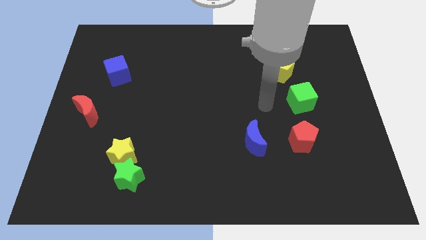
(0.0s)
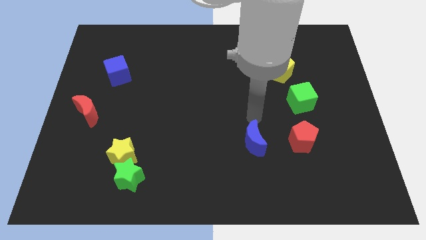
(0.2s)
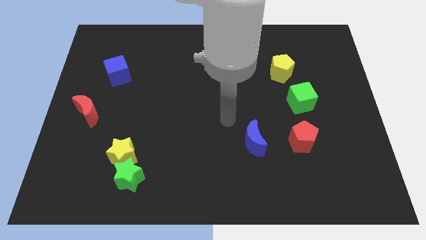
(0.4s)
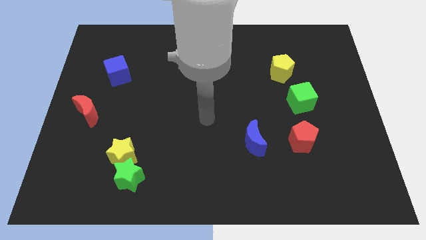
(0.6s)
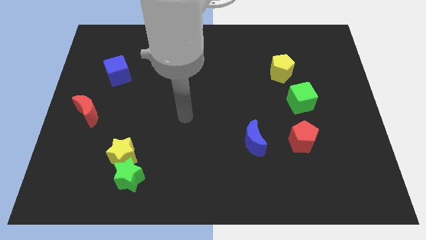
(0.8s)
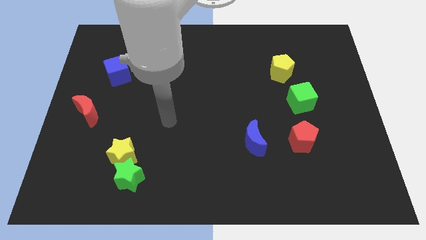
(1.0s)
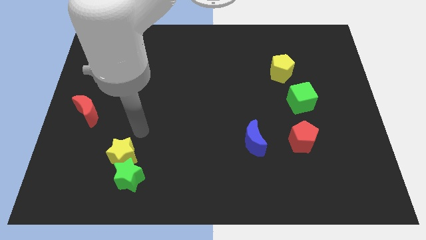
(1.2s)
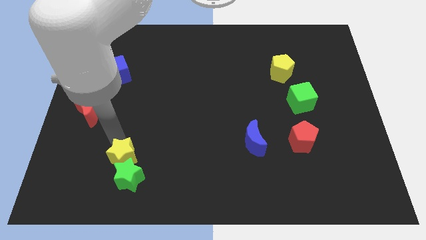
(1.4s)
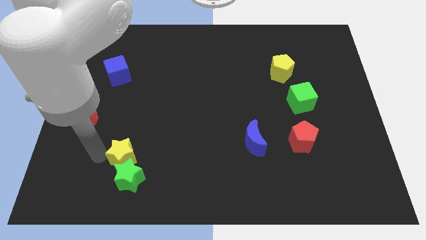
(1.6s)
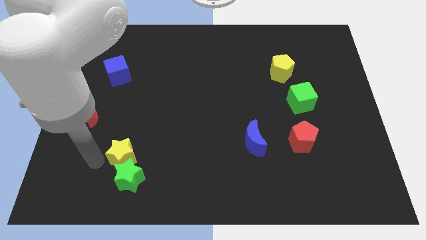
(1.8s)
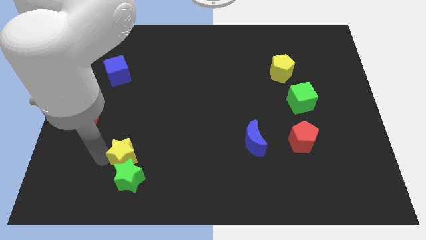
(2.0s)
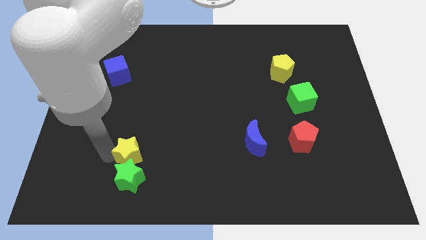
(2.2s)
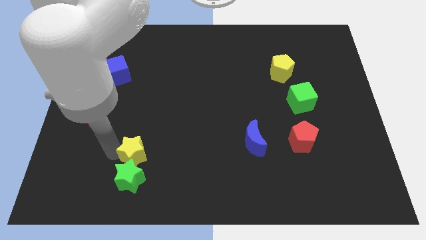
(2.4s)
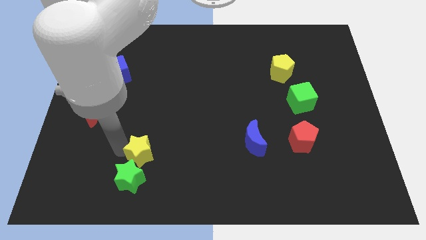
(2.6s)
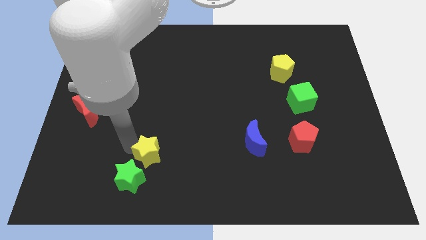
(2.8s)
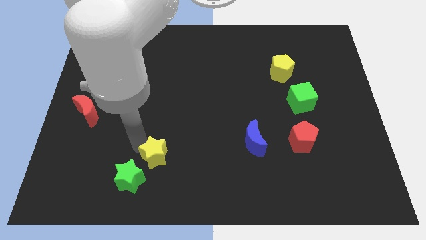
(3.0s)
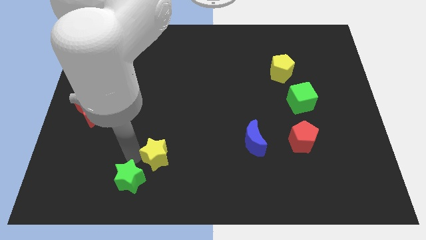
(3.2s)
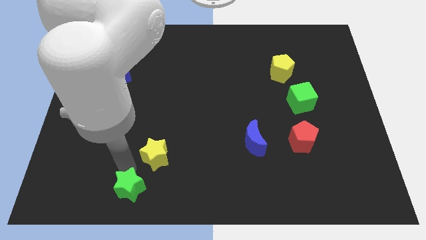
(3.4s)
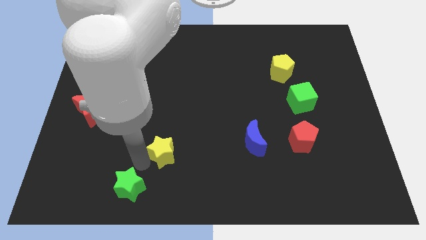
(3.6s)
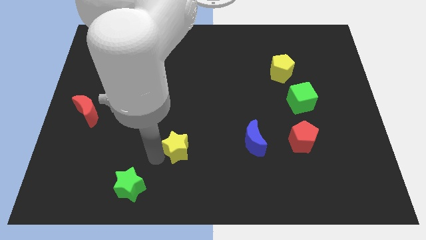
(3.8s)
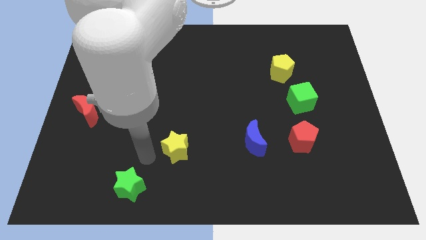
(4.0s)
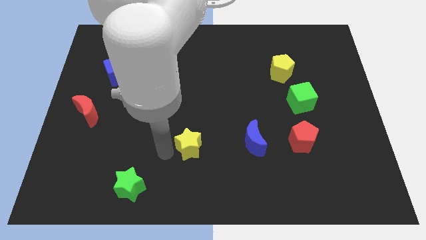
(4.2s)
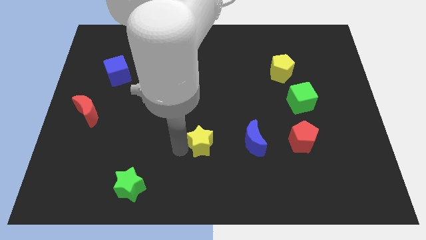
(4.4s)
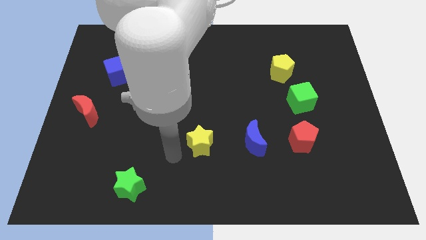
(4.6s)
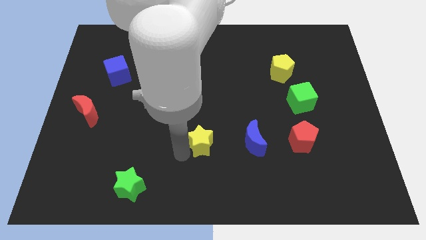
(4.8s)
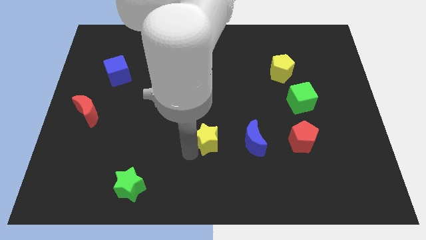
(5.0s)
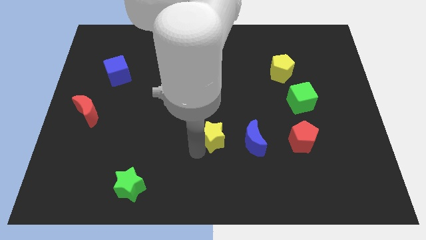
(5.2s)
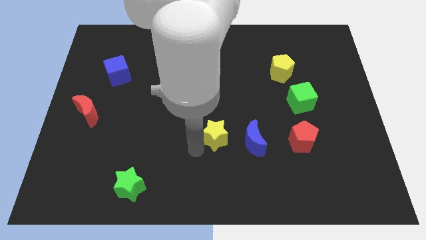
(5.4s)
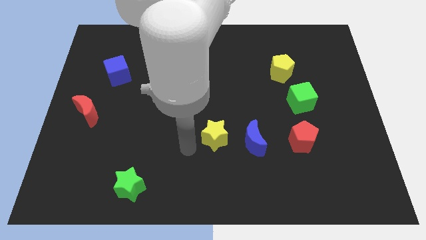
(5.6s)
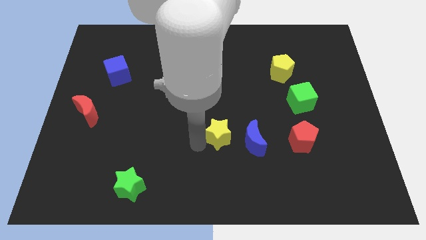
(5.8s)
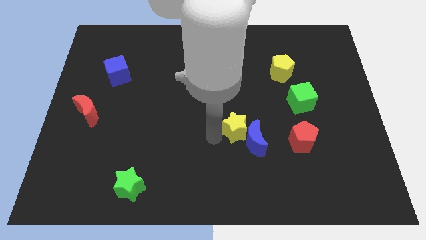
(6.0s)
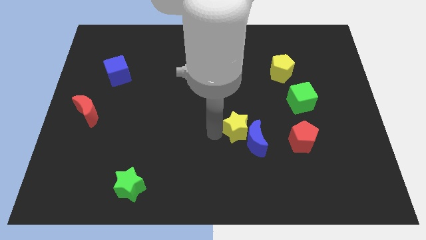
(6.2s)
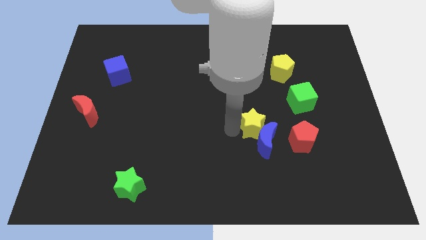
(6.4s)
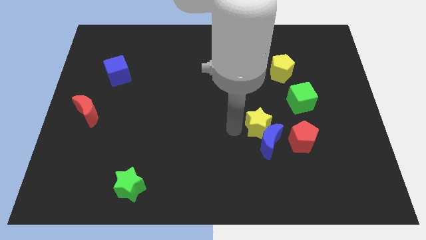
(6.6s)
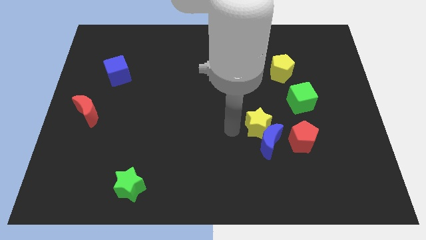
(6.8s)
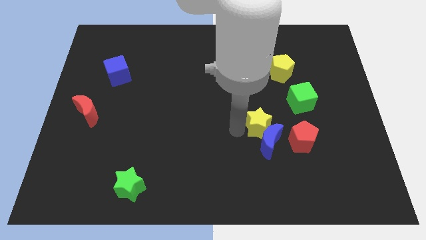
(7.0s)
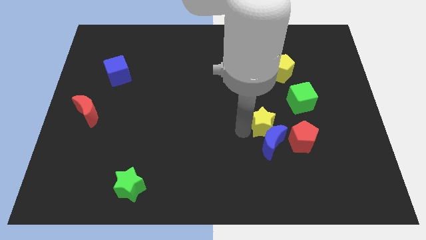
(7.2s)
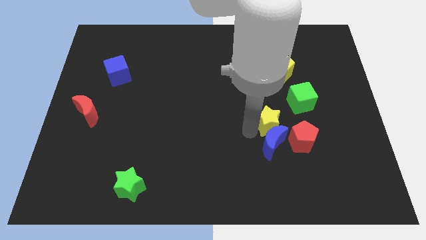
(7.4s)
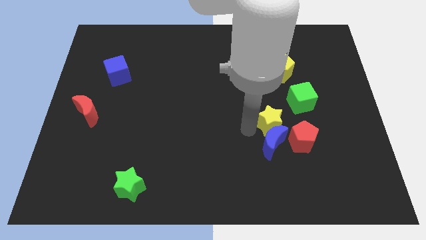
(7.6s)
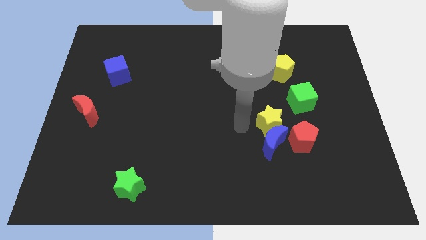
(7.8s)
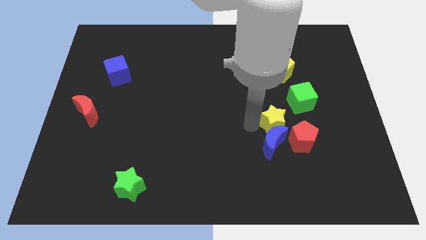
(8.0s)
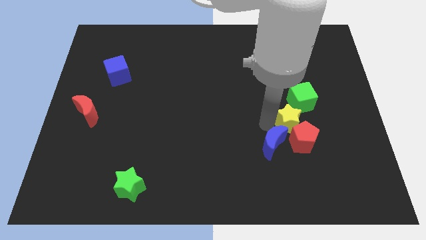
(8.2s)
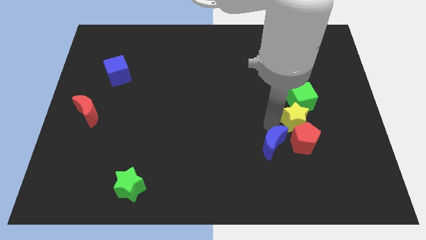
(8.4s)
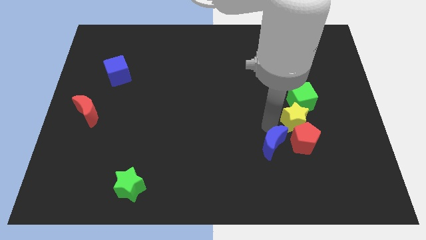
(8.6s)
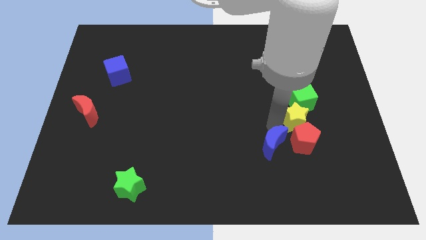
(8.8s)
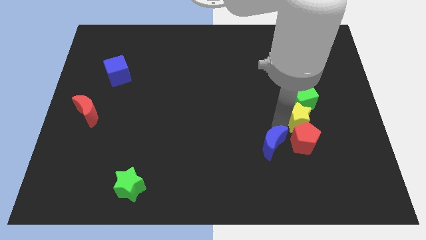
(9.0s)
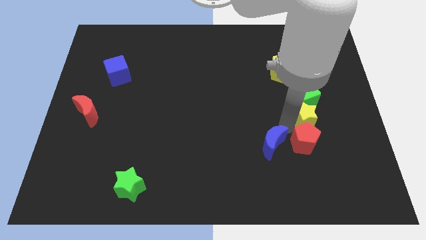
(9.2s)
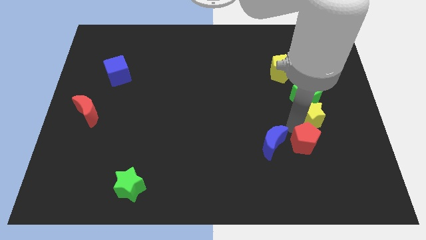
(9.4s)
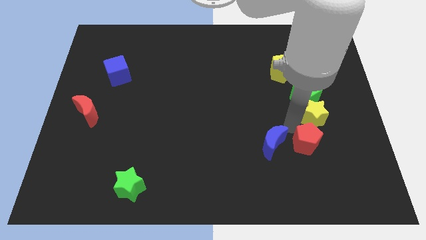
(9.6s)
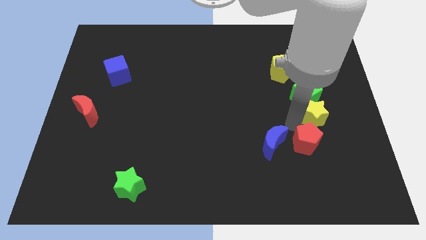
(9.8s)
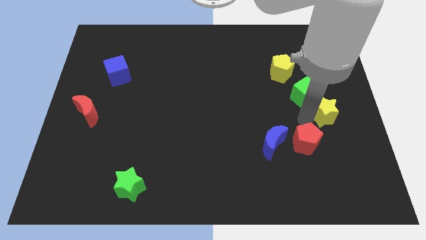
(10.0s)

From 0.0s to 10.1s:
push the yellow star to the right side of the board

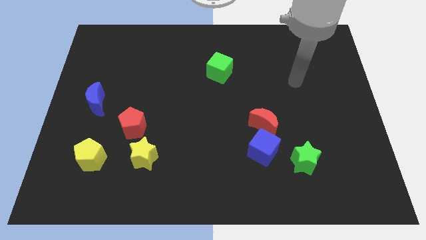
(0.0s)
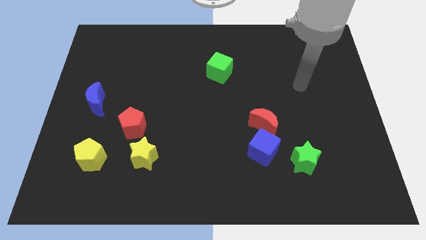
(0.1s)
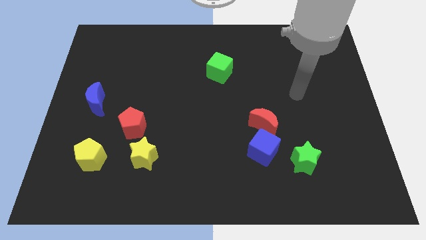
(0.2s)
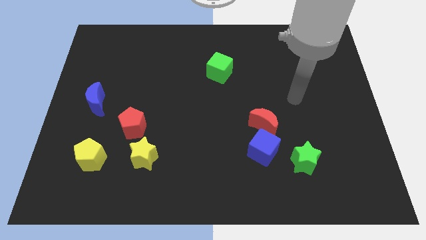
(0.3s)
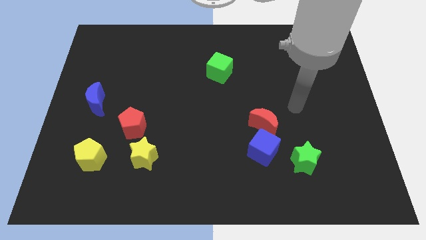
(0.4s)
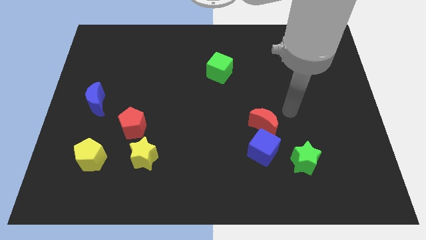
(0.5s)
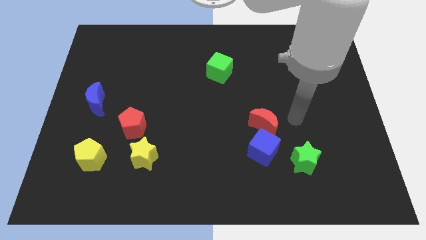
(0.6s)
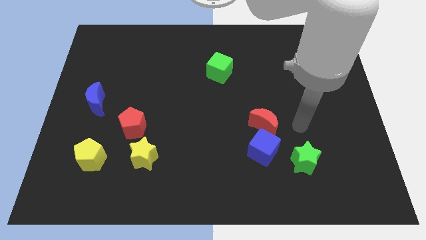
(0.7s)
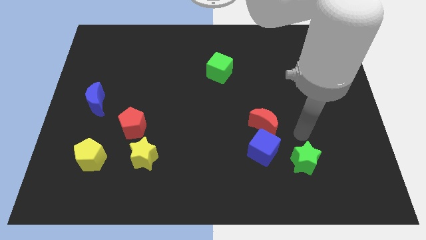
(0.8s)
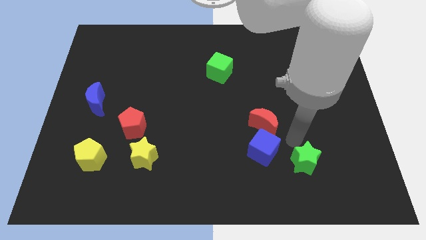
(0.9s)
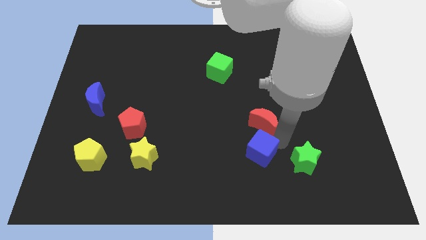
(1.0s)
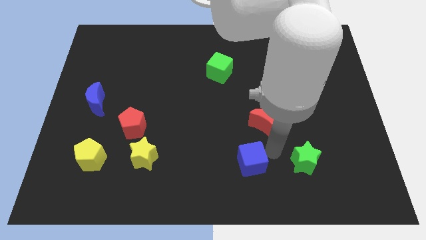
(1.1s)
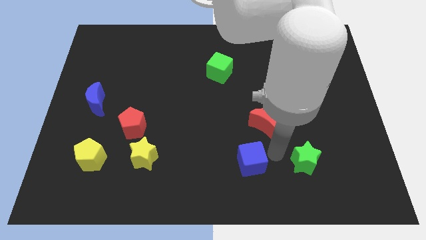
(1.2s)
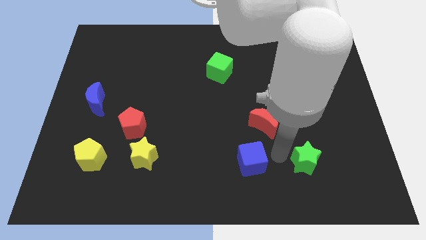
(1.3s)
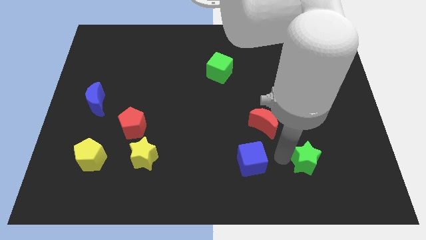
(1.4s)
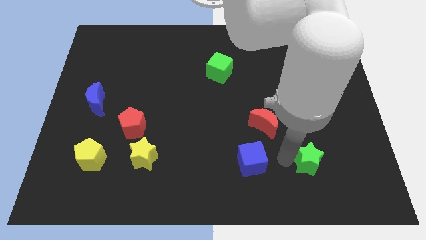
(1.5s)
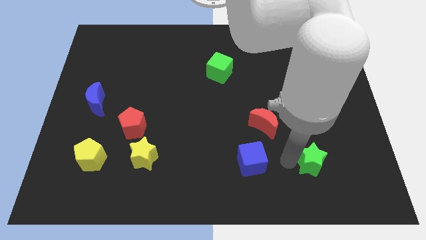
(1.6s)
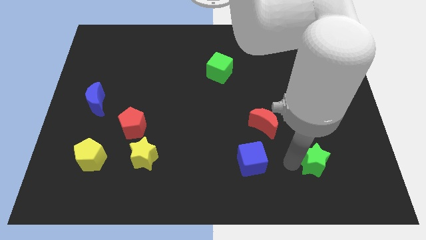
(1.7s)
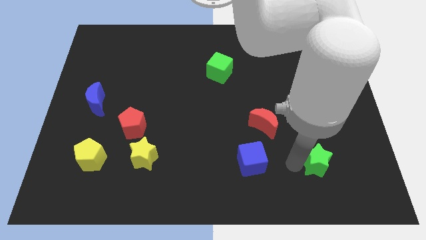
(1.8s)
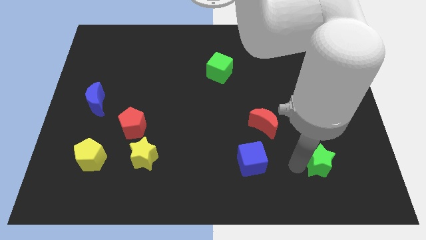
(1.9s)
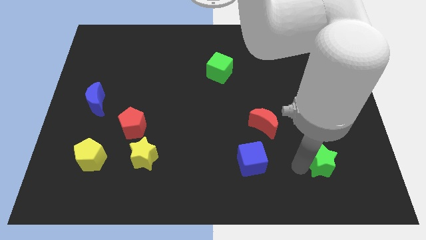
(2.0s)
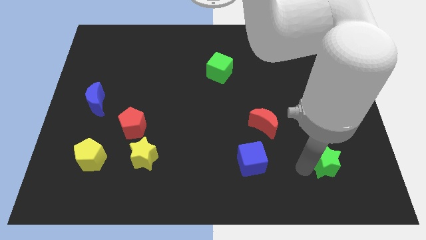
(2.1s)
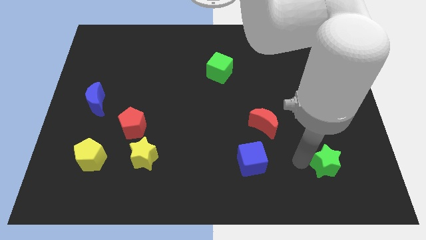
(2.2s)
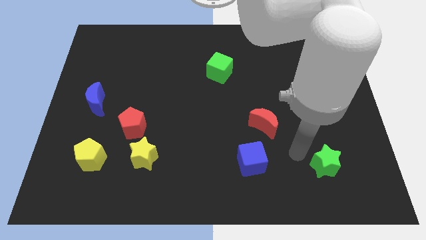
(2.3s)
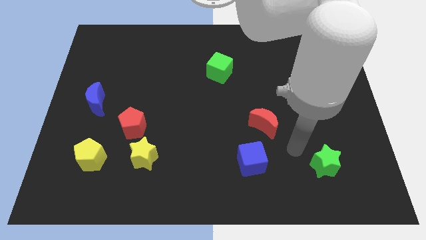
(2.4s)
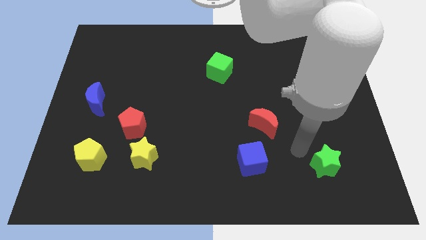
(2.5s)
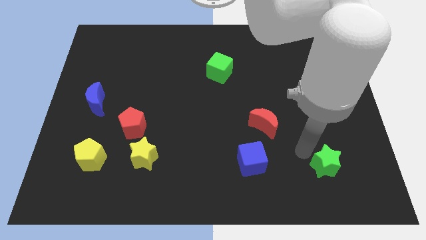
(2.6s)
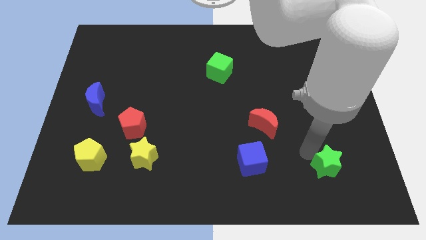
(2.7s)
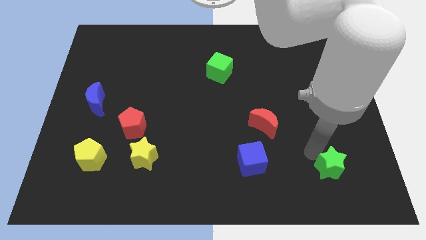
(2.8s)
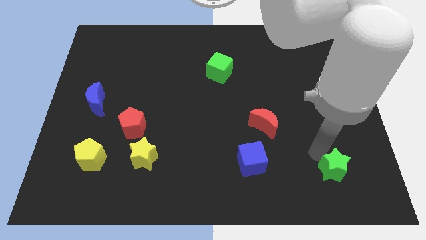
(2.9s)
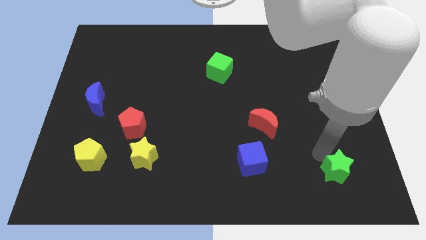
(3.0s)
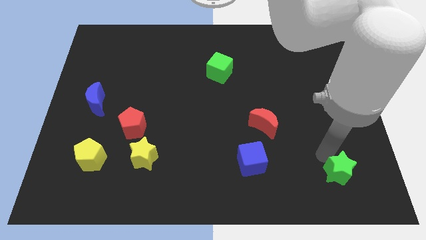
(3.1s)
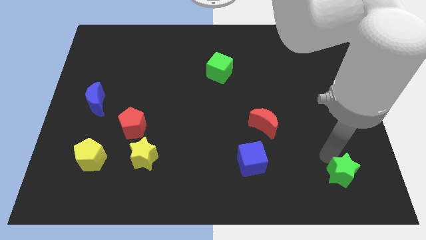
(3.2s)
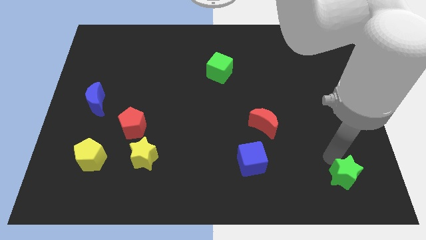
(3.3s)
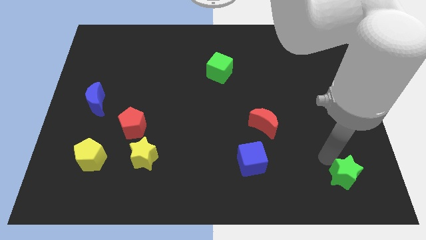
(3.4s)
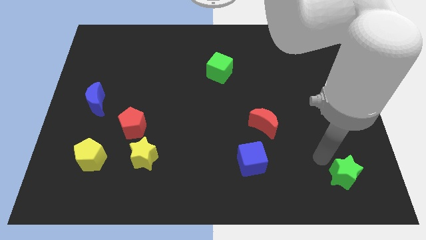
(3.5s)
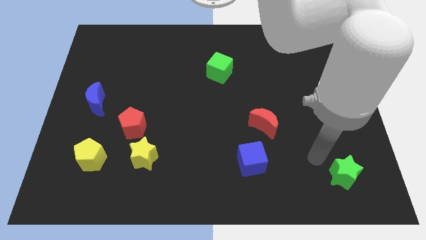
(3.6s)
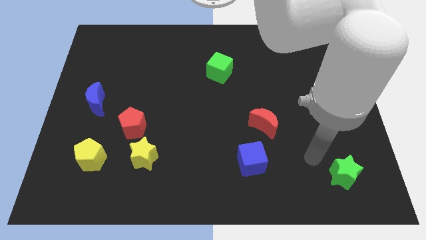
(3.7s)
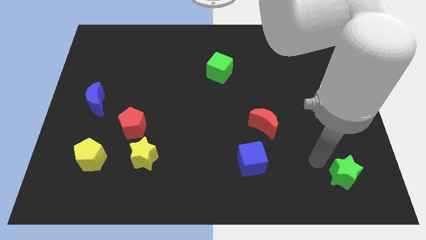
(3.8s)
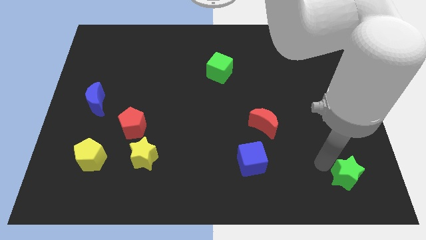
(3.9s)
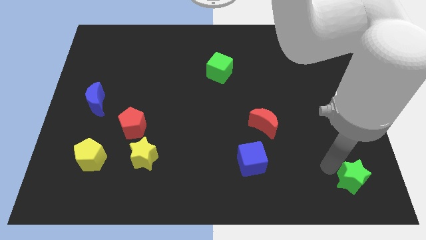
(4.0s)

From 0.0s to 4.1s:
push the green star to the bottom right corner
